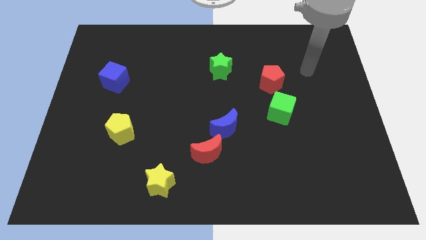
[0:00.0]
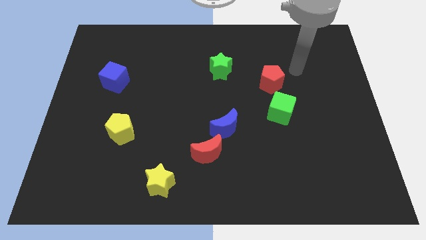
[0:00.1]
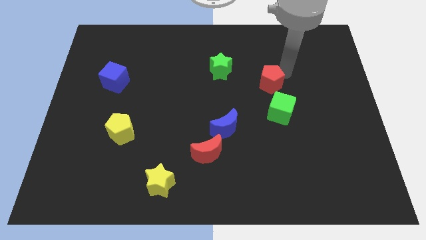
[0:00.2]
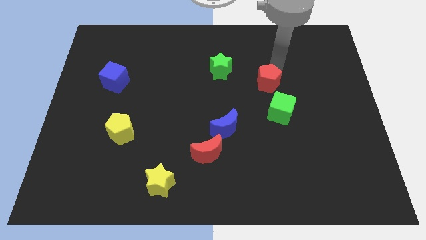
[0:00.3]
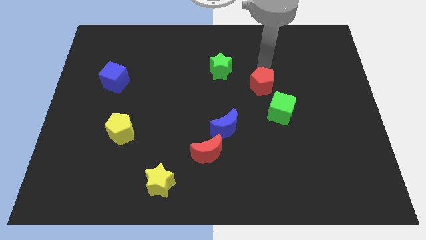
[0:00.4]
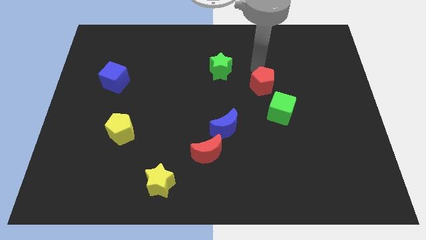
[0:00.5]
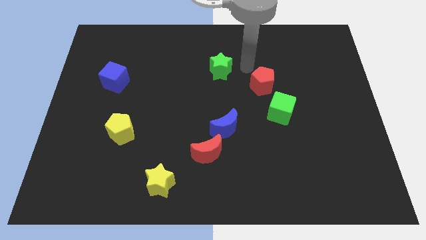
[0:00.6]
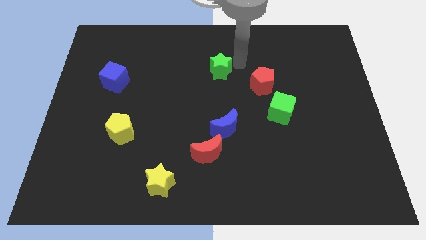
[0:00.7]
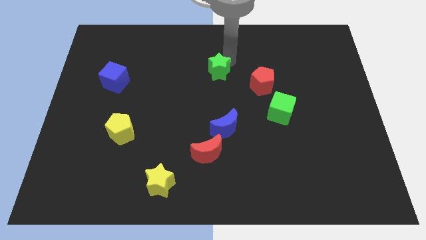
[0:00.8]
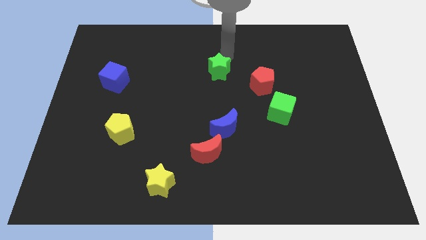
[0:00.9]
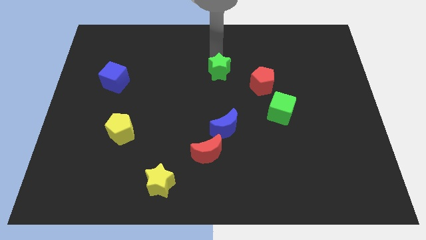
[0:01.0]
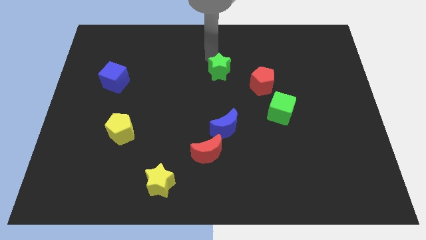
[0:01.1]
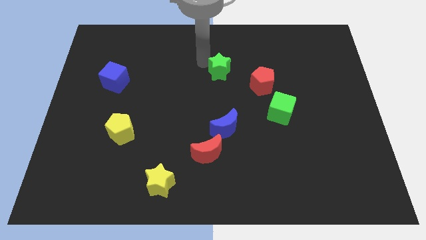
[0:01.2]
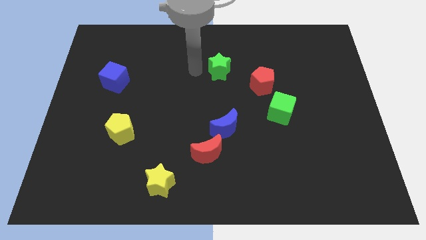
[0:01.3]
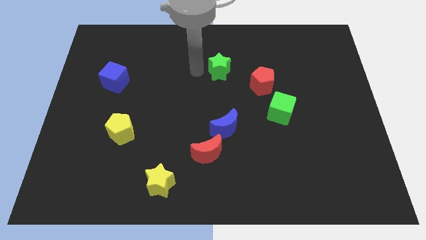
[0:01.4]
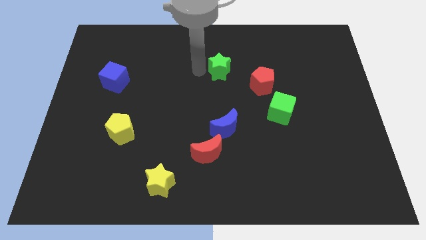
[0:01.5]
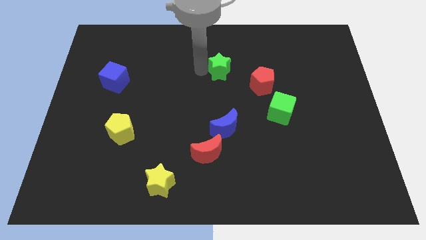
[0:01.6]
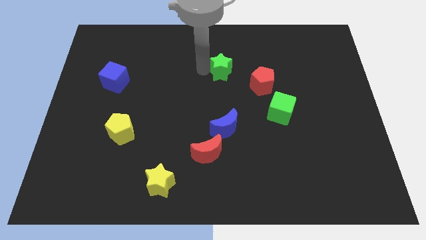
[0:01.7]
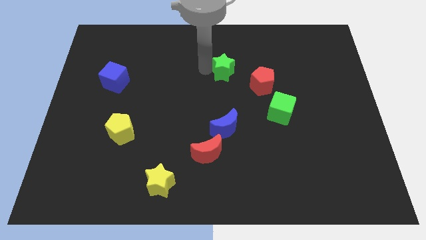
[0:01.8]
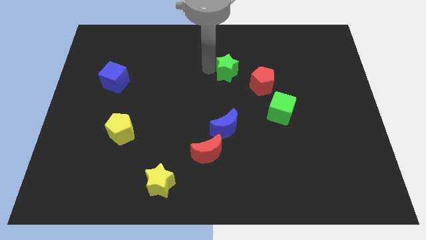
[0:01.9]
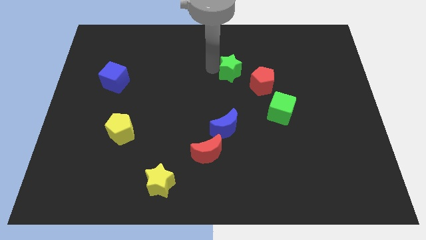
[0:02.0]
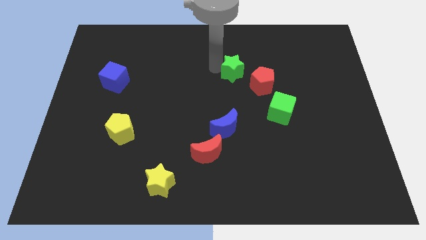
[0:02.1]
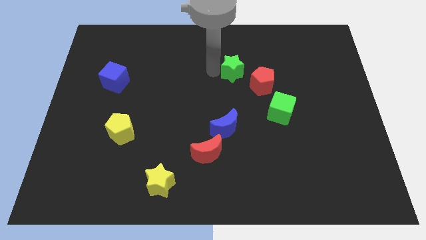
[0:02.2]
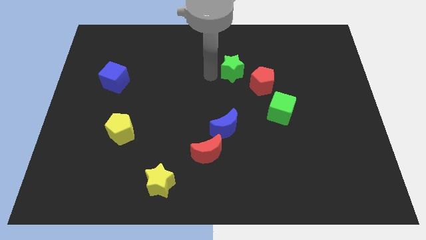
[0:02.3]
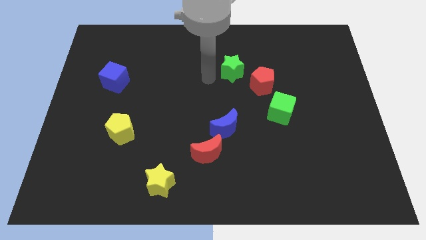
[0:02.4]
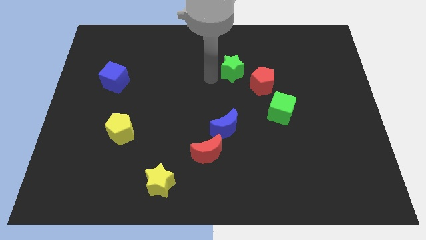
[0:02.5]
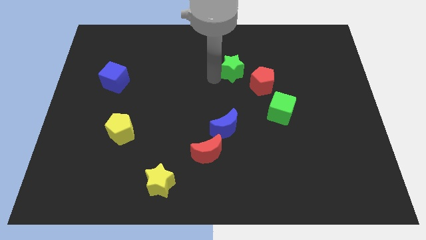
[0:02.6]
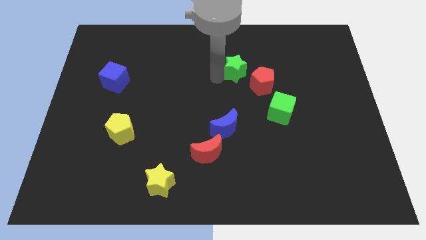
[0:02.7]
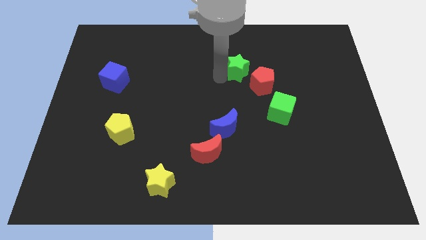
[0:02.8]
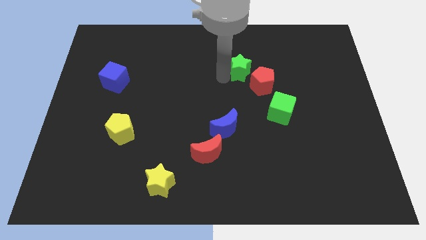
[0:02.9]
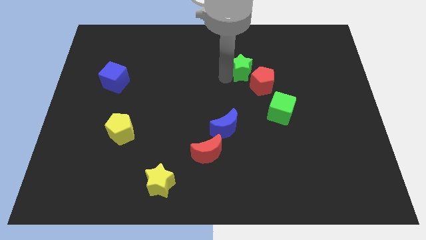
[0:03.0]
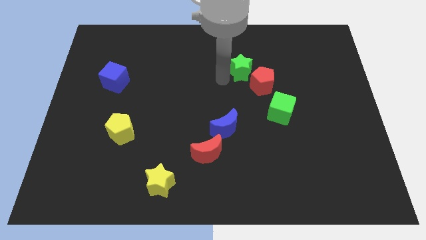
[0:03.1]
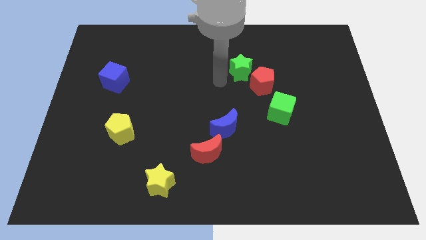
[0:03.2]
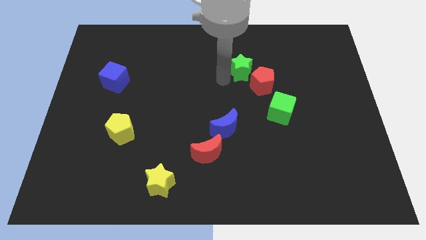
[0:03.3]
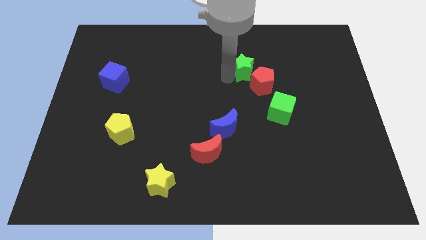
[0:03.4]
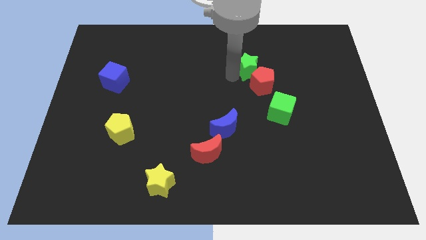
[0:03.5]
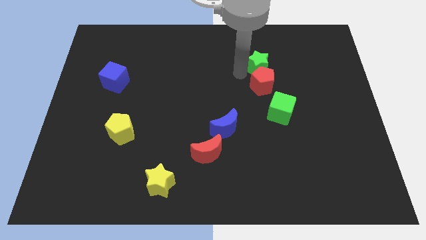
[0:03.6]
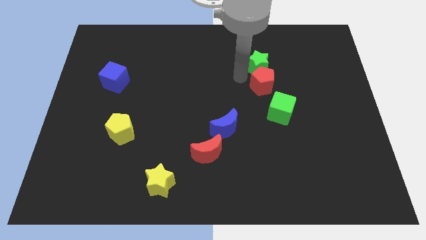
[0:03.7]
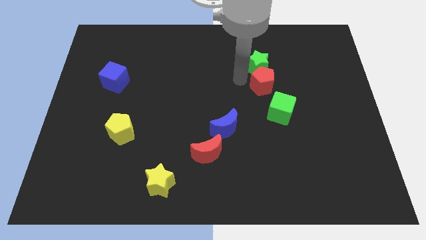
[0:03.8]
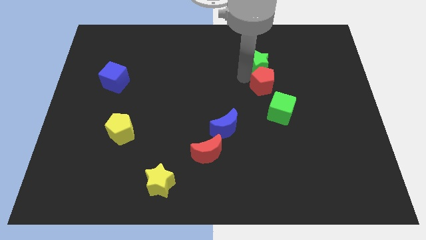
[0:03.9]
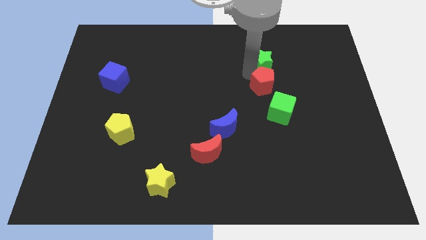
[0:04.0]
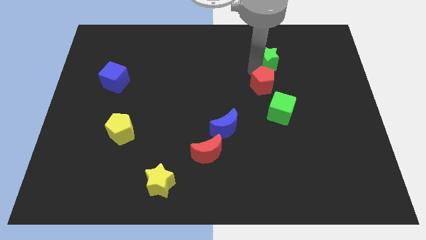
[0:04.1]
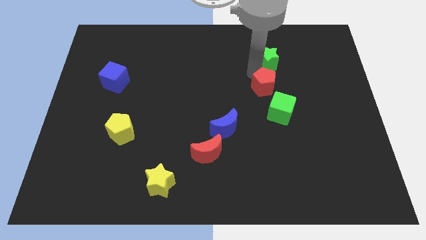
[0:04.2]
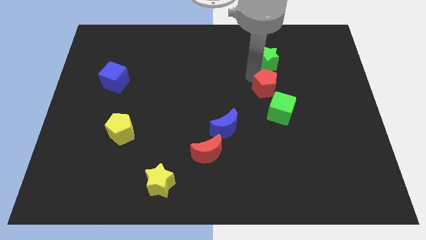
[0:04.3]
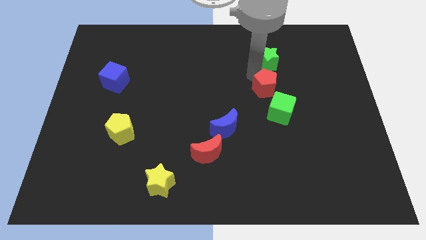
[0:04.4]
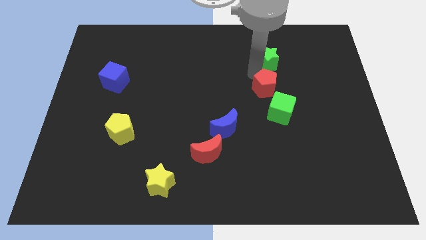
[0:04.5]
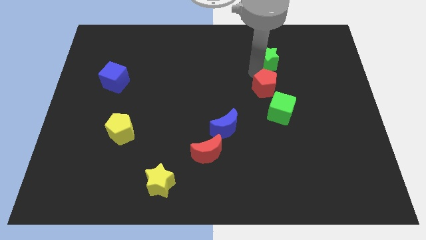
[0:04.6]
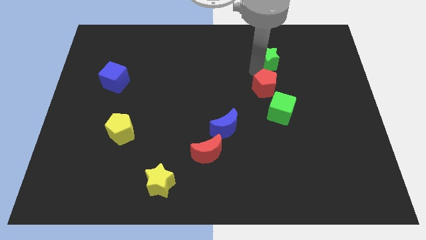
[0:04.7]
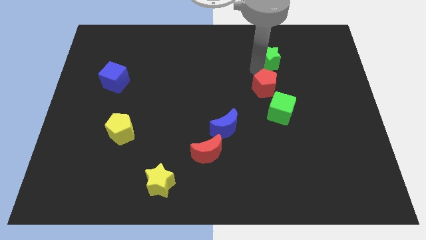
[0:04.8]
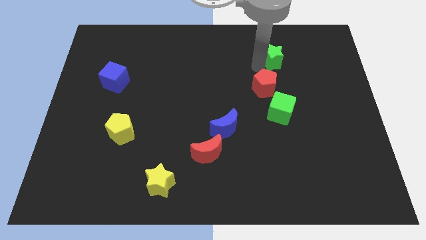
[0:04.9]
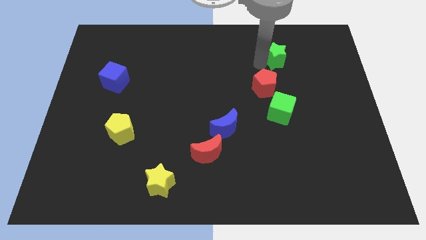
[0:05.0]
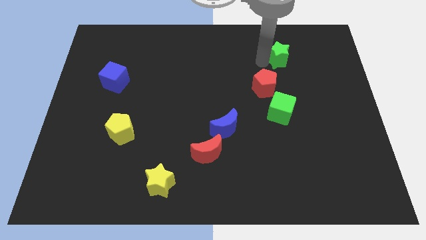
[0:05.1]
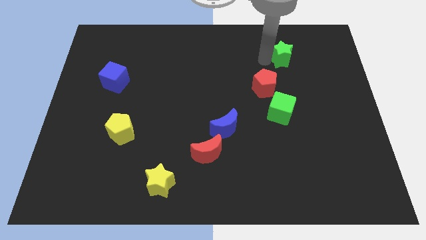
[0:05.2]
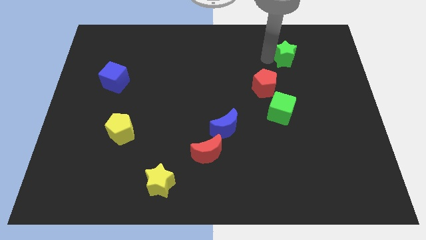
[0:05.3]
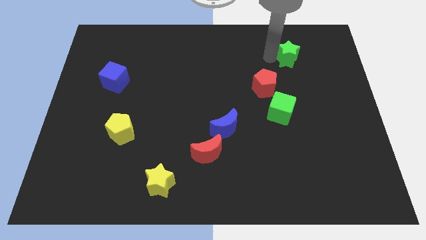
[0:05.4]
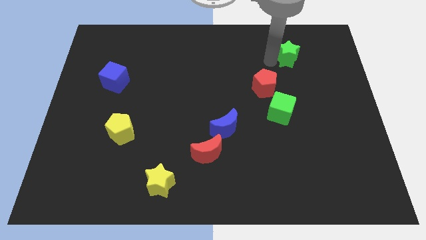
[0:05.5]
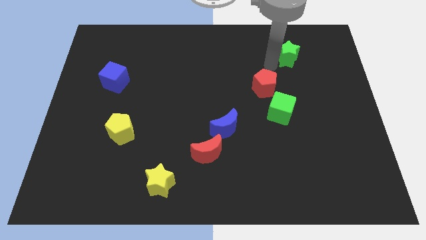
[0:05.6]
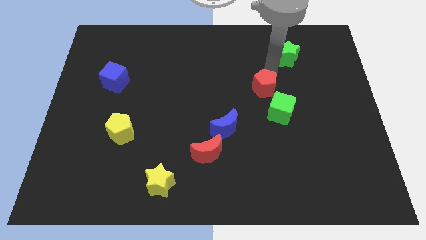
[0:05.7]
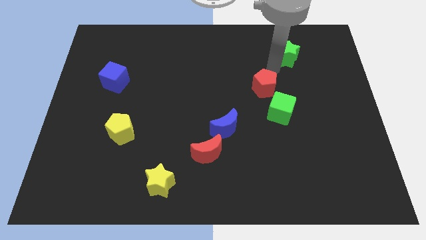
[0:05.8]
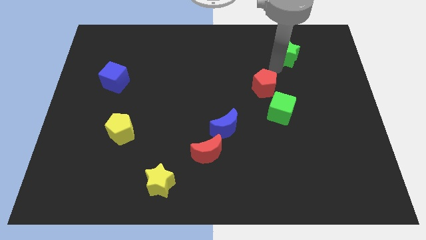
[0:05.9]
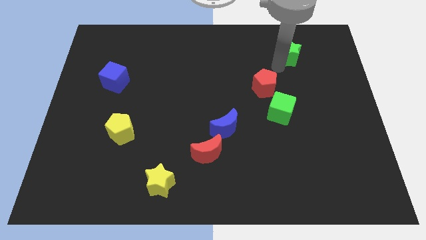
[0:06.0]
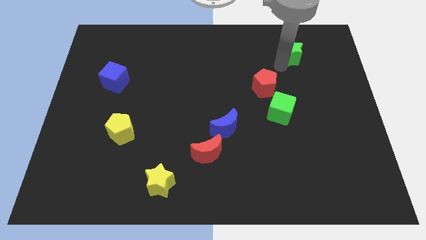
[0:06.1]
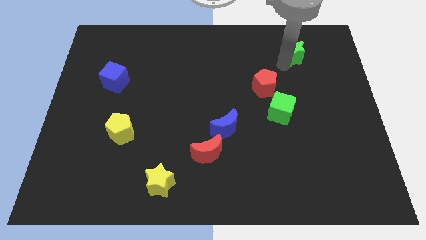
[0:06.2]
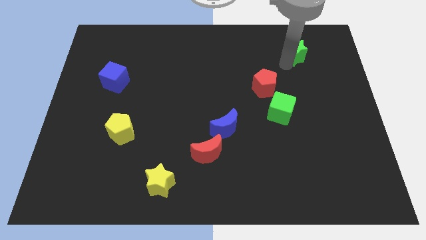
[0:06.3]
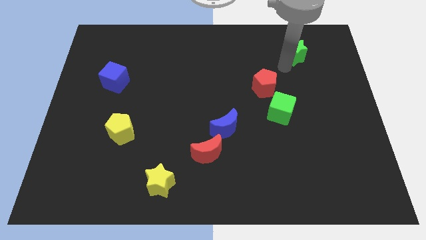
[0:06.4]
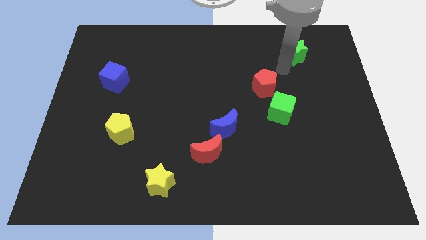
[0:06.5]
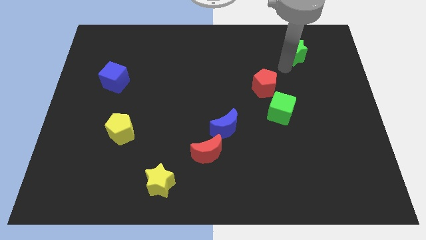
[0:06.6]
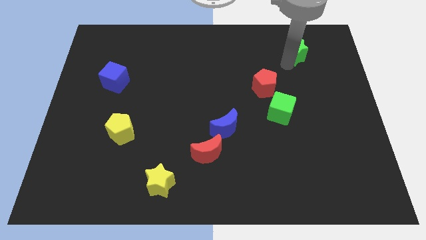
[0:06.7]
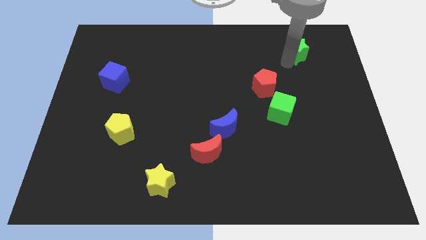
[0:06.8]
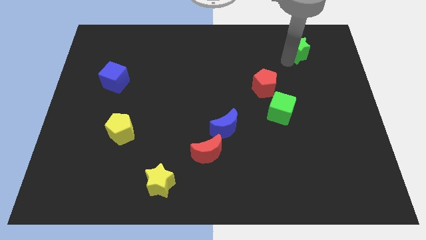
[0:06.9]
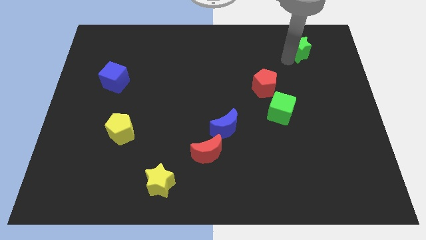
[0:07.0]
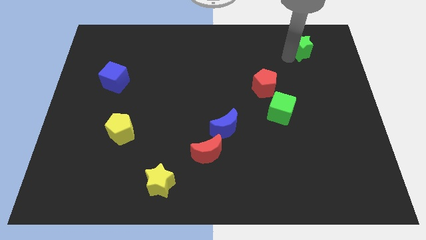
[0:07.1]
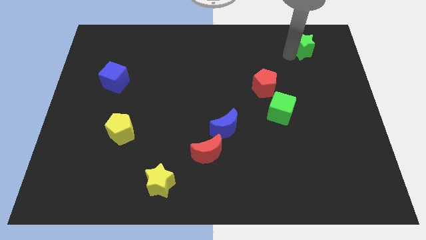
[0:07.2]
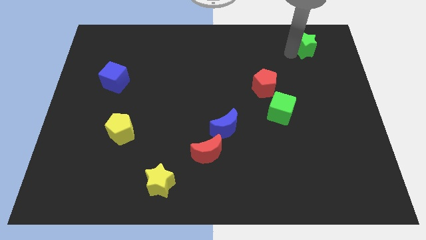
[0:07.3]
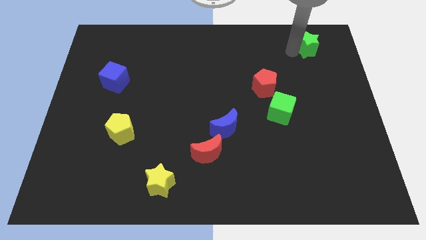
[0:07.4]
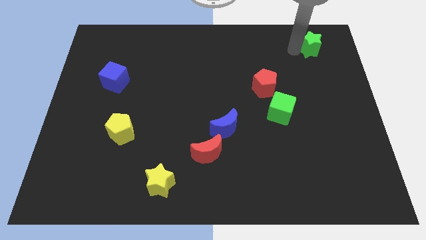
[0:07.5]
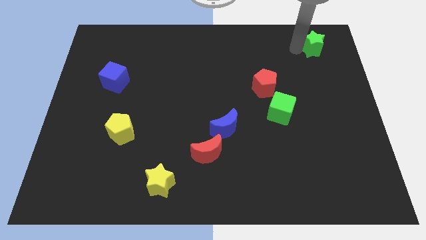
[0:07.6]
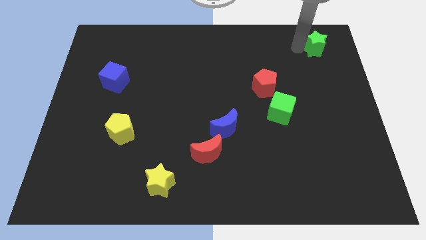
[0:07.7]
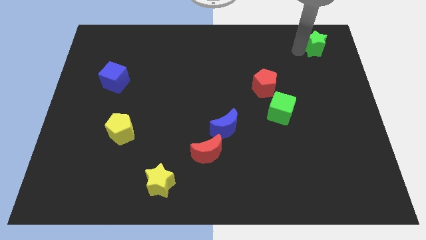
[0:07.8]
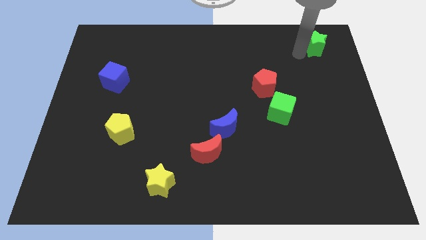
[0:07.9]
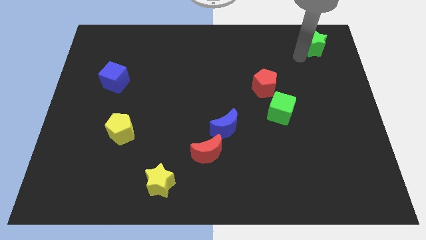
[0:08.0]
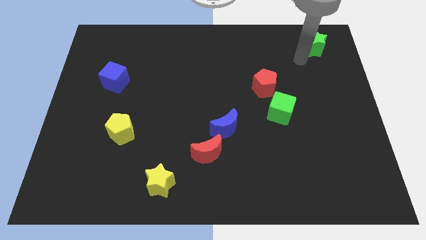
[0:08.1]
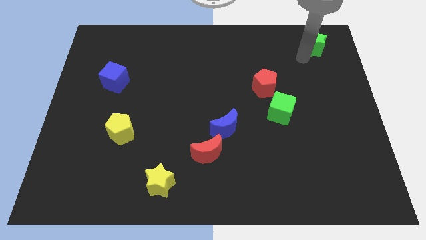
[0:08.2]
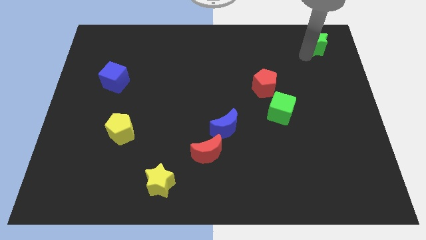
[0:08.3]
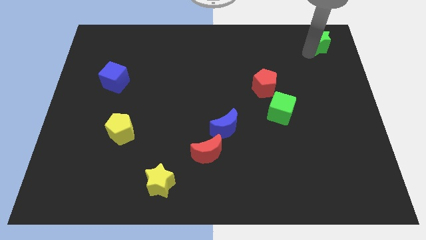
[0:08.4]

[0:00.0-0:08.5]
move the green star to the top right of the board
